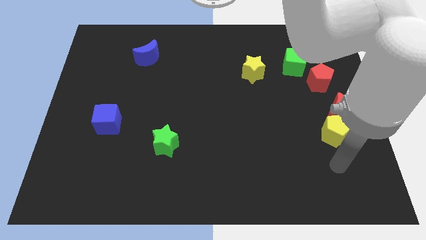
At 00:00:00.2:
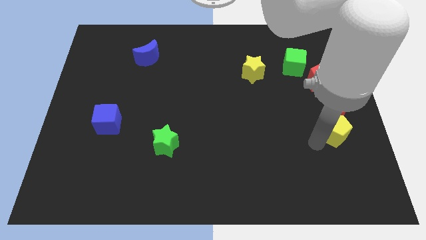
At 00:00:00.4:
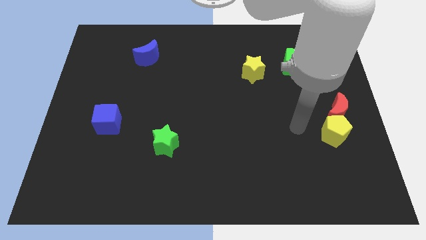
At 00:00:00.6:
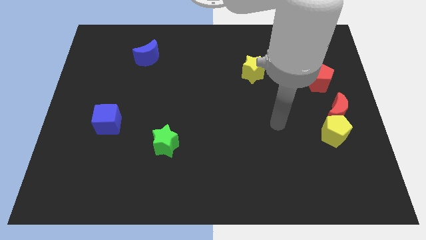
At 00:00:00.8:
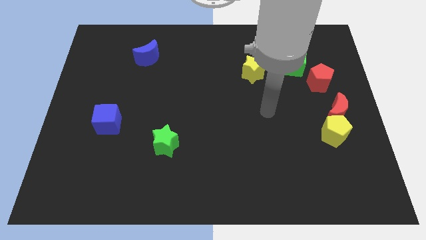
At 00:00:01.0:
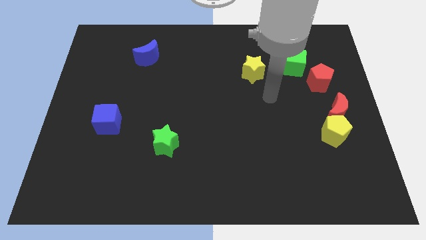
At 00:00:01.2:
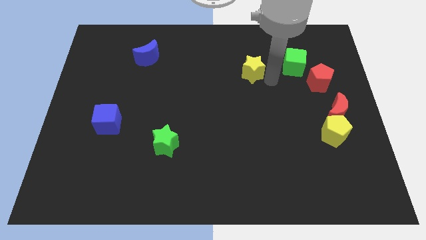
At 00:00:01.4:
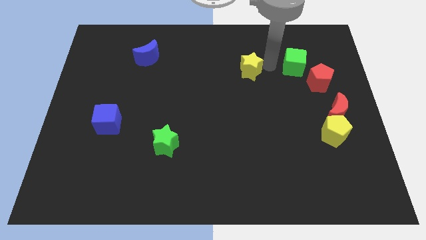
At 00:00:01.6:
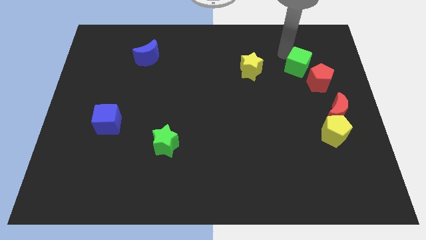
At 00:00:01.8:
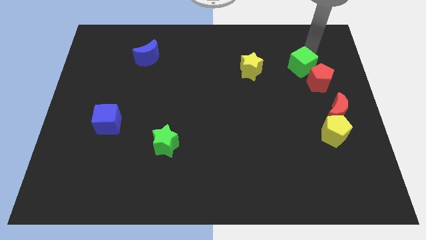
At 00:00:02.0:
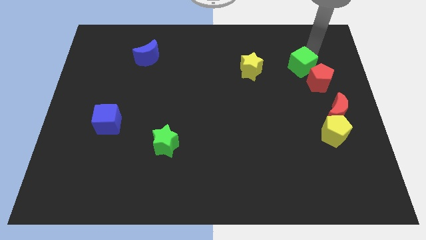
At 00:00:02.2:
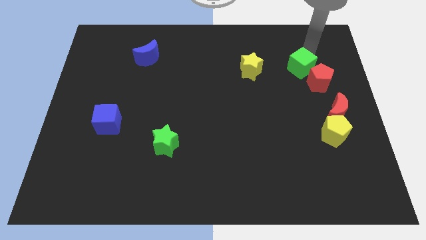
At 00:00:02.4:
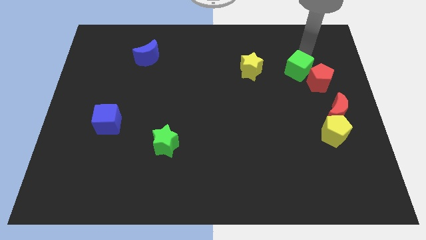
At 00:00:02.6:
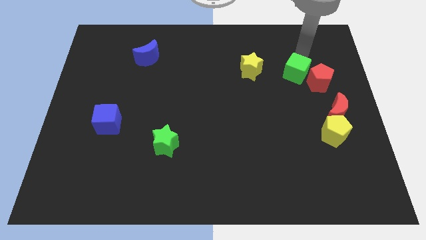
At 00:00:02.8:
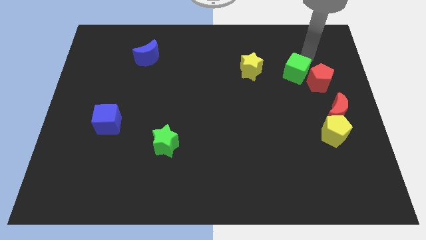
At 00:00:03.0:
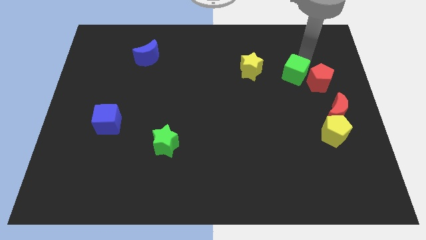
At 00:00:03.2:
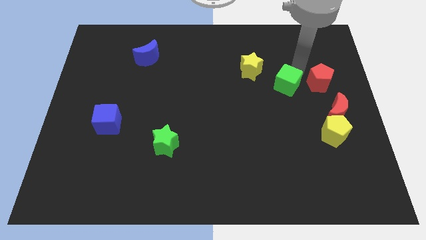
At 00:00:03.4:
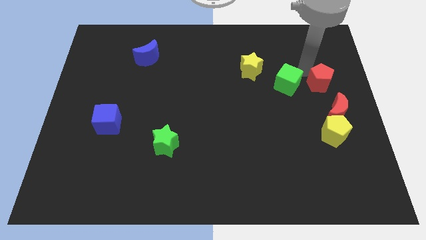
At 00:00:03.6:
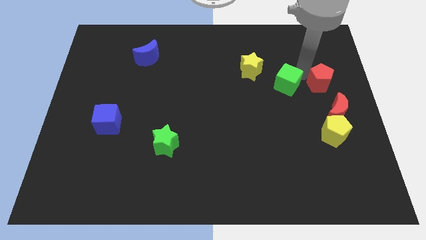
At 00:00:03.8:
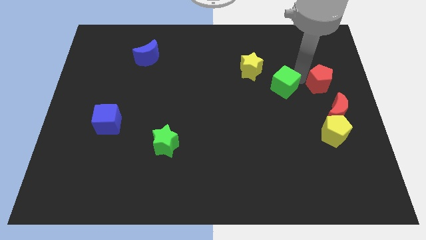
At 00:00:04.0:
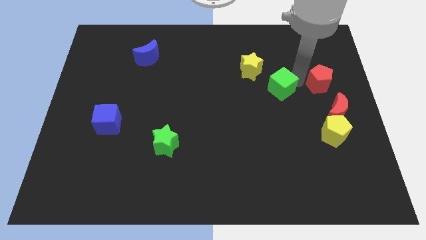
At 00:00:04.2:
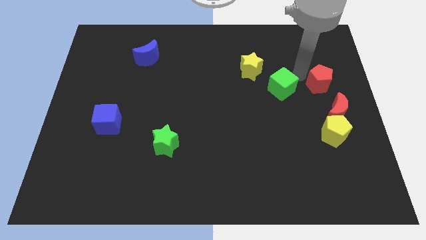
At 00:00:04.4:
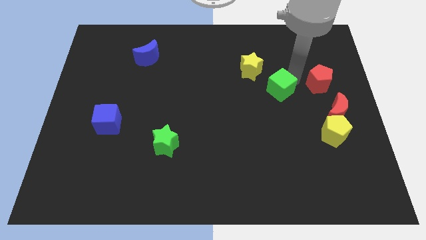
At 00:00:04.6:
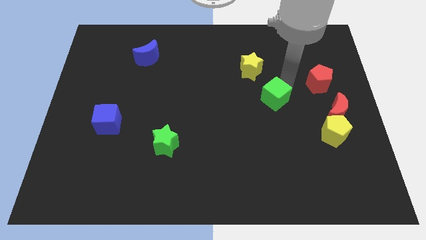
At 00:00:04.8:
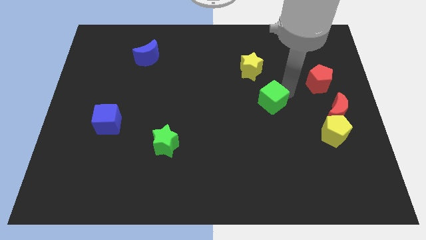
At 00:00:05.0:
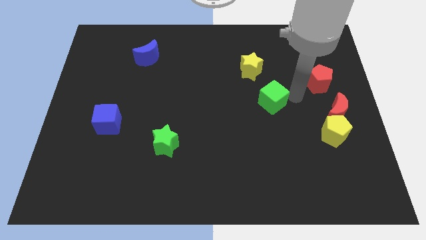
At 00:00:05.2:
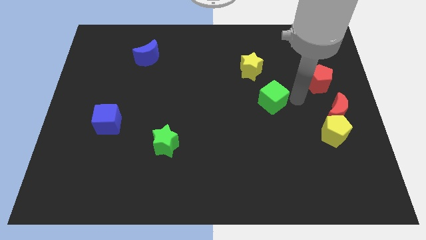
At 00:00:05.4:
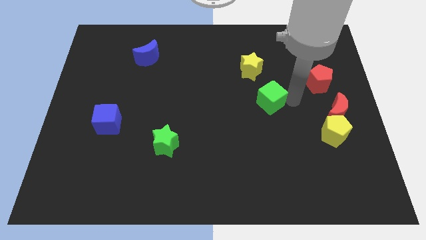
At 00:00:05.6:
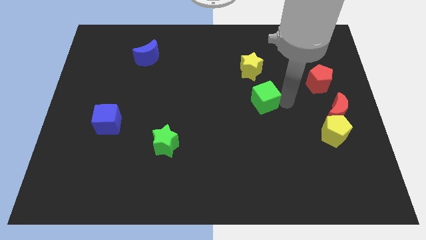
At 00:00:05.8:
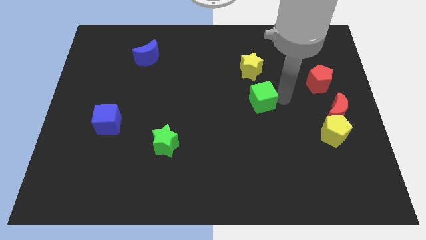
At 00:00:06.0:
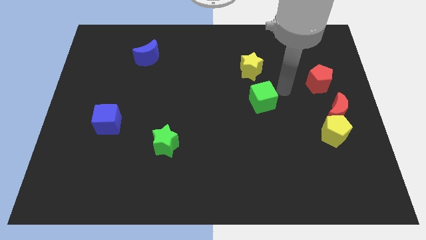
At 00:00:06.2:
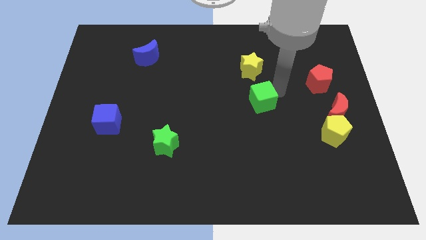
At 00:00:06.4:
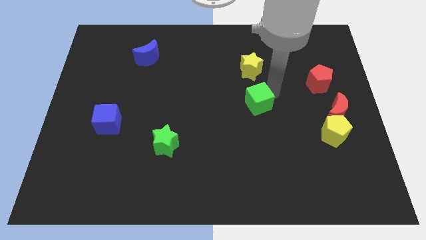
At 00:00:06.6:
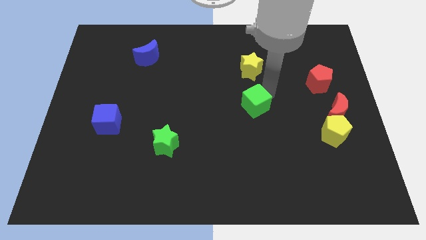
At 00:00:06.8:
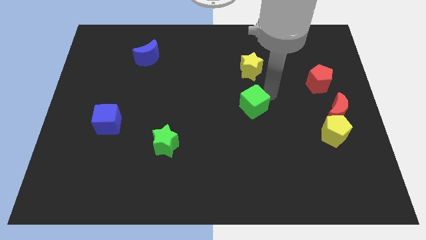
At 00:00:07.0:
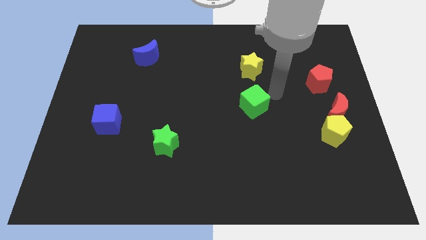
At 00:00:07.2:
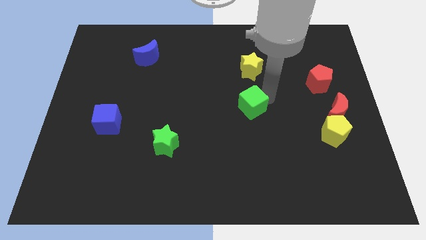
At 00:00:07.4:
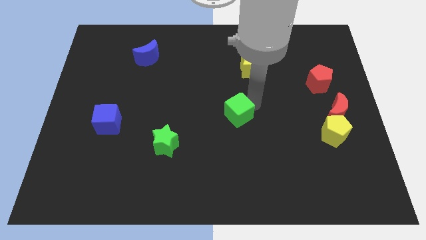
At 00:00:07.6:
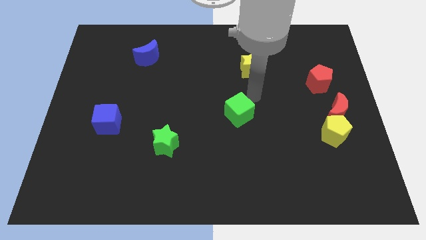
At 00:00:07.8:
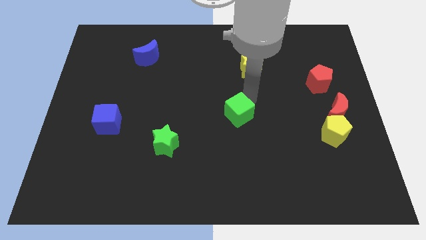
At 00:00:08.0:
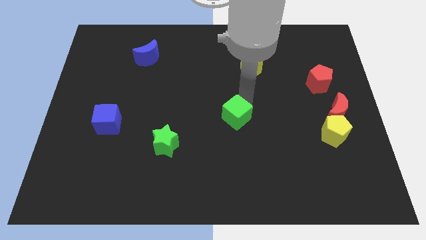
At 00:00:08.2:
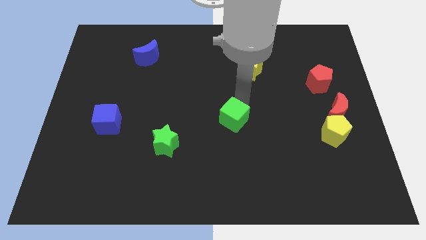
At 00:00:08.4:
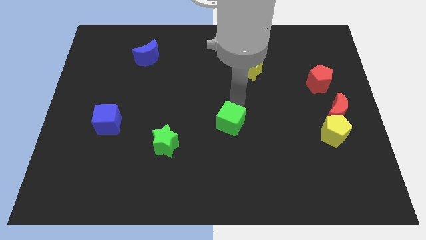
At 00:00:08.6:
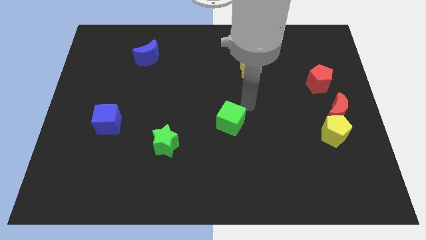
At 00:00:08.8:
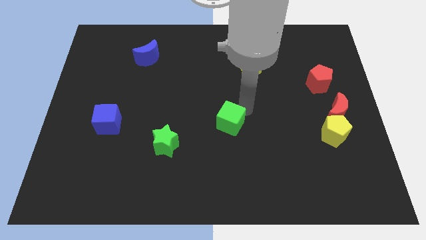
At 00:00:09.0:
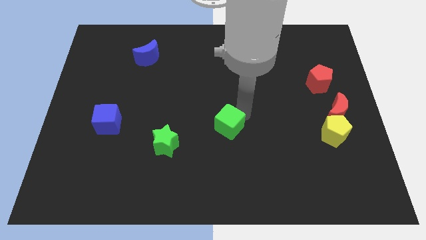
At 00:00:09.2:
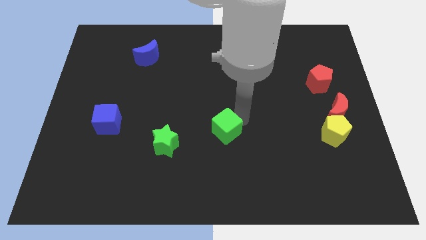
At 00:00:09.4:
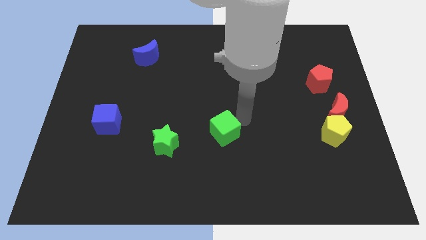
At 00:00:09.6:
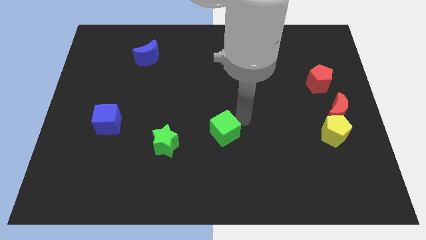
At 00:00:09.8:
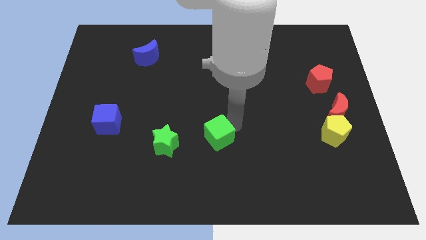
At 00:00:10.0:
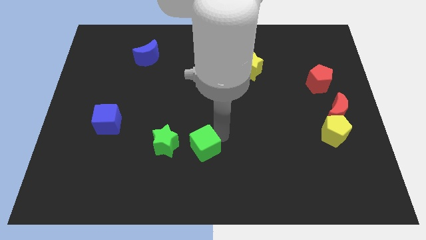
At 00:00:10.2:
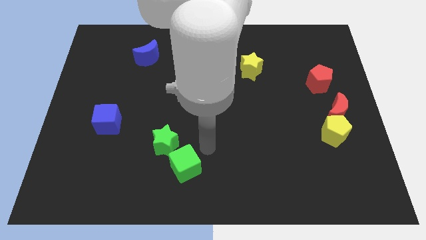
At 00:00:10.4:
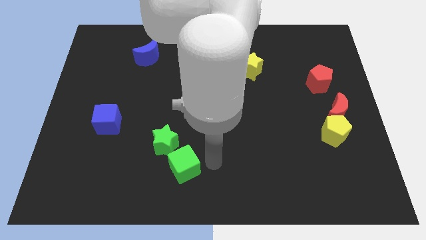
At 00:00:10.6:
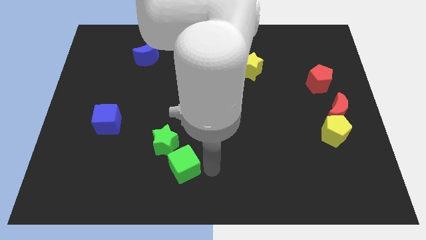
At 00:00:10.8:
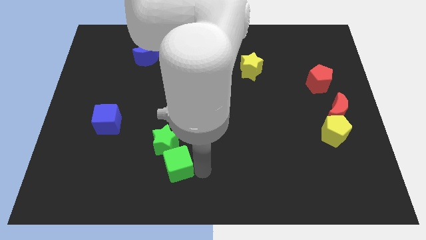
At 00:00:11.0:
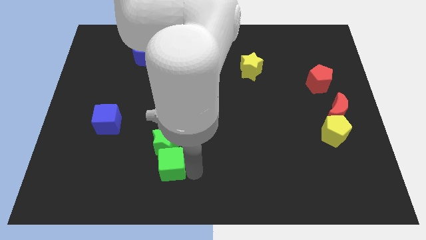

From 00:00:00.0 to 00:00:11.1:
slide the green cube to the bottom left of the green star

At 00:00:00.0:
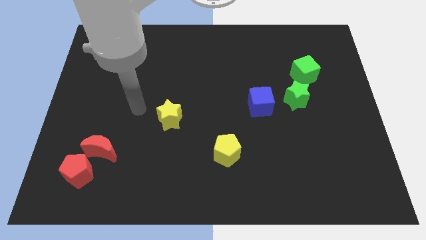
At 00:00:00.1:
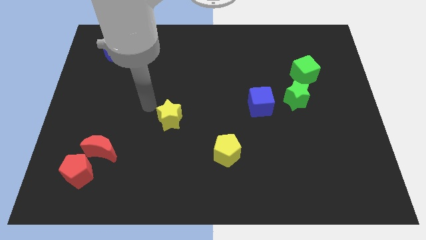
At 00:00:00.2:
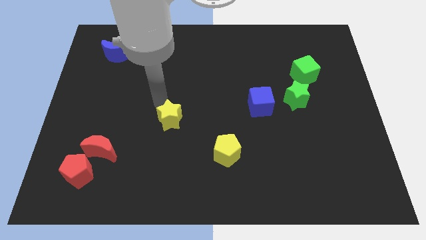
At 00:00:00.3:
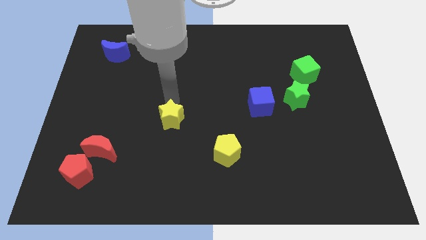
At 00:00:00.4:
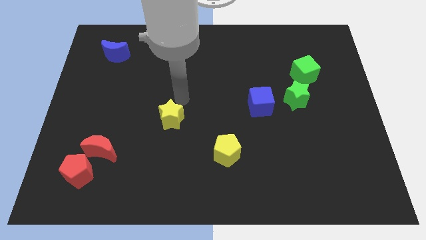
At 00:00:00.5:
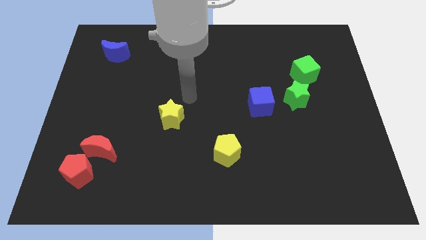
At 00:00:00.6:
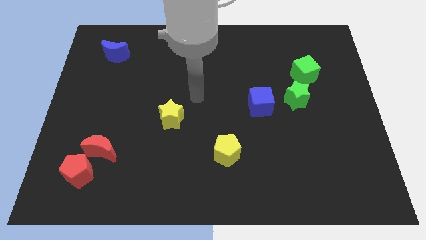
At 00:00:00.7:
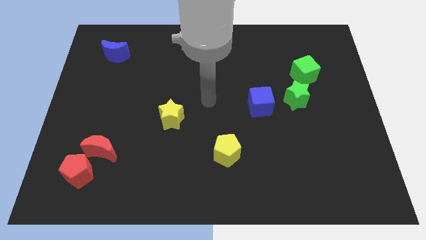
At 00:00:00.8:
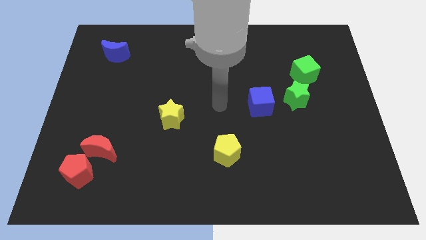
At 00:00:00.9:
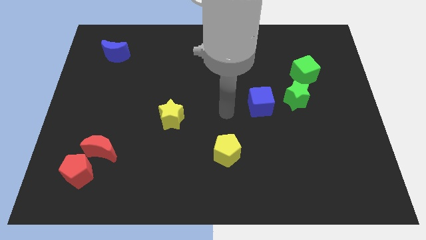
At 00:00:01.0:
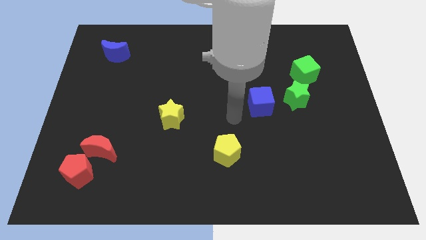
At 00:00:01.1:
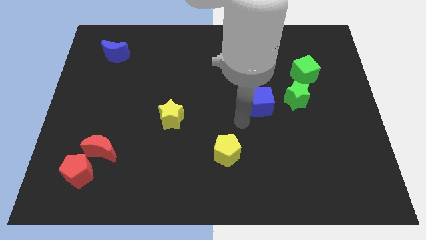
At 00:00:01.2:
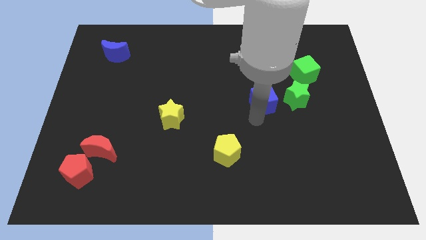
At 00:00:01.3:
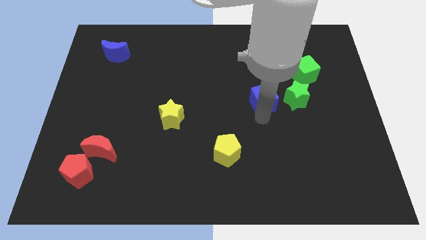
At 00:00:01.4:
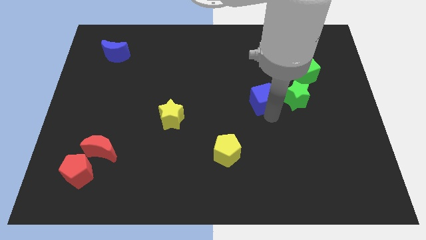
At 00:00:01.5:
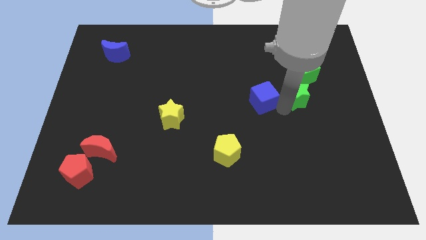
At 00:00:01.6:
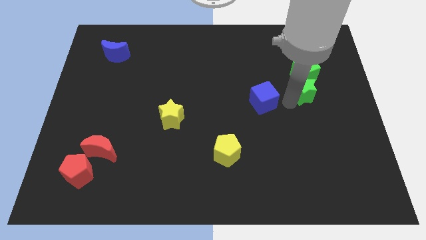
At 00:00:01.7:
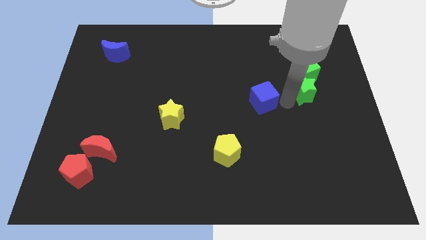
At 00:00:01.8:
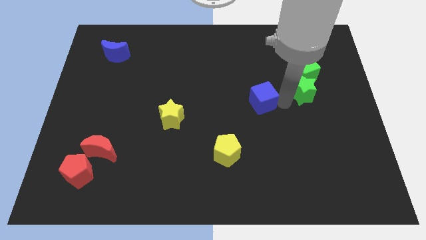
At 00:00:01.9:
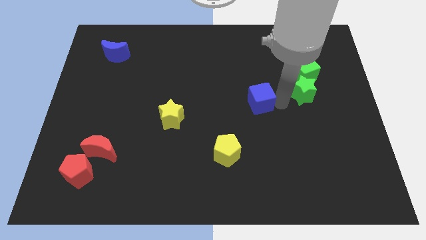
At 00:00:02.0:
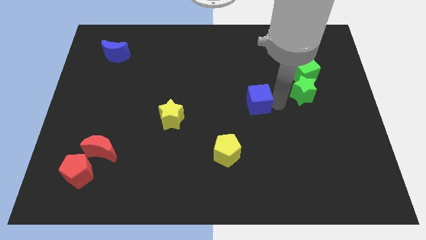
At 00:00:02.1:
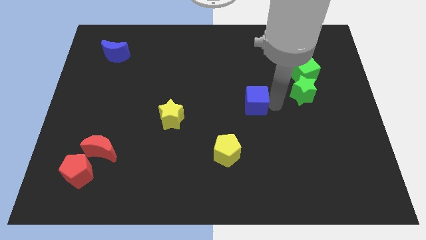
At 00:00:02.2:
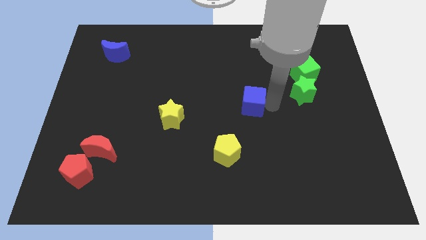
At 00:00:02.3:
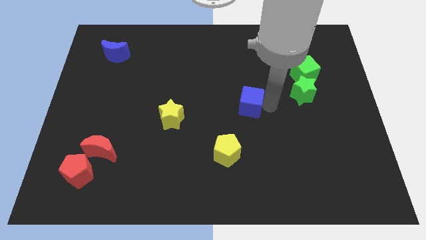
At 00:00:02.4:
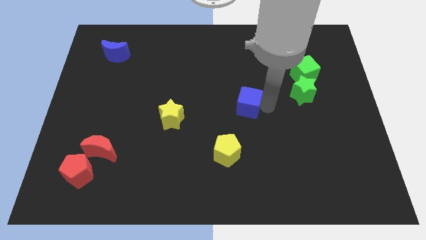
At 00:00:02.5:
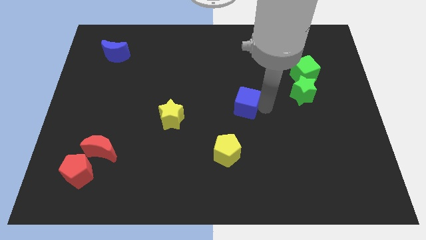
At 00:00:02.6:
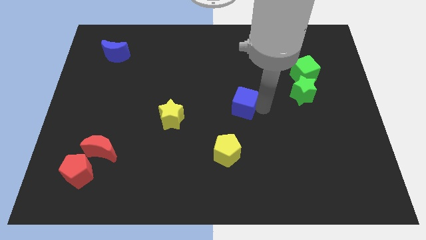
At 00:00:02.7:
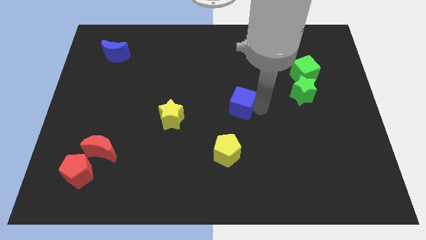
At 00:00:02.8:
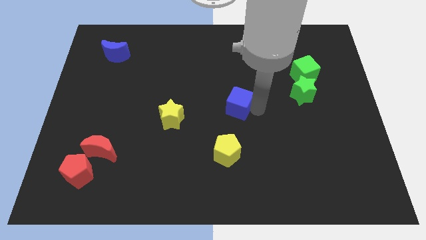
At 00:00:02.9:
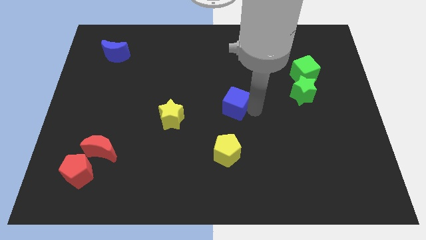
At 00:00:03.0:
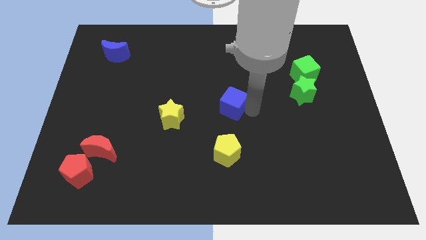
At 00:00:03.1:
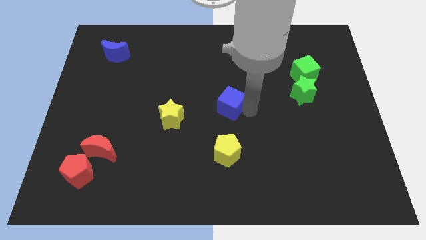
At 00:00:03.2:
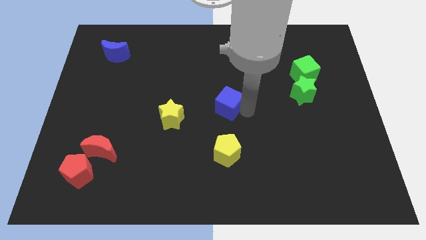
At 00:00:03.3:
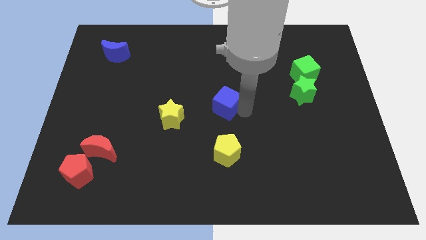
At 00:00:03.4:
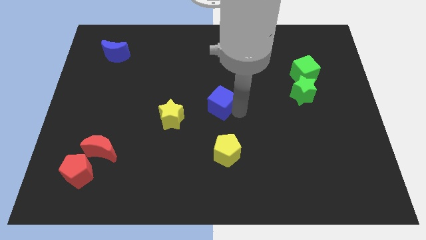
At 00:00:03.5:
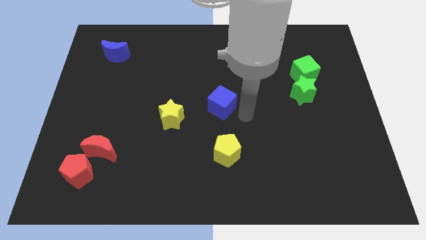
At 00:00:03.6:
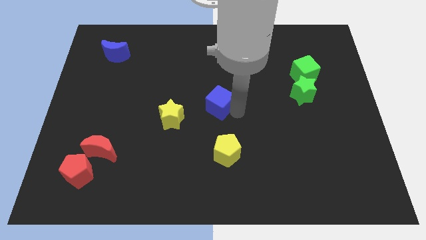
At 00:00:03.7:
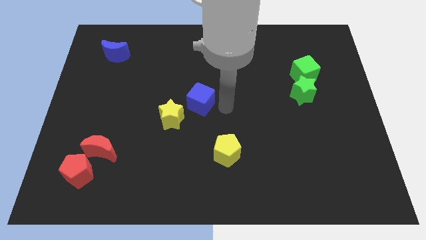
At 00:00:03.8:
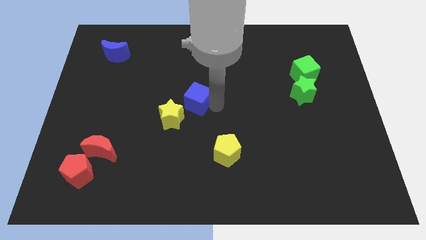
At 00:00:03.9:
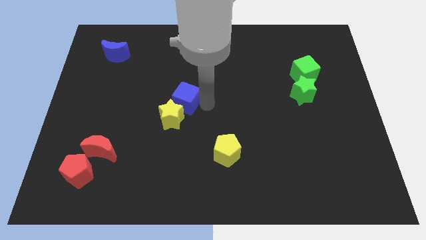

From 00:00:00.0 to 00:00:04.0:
slide the blue cube to the top side of the yellow star
